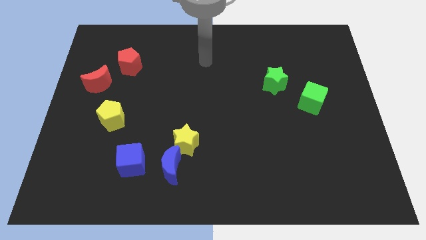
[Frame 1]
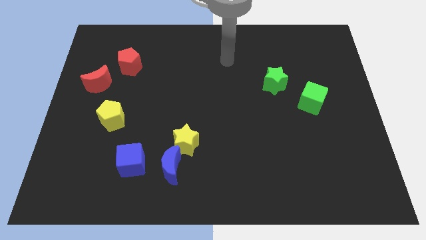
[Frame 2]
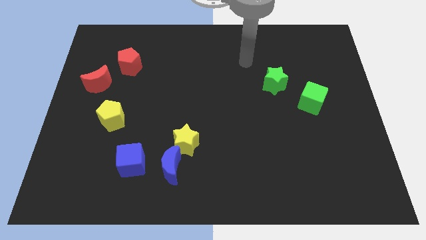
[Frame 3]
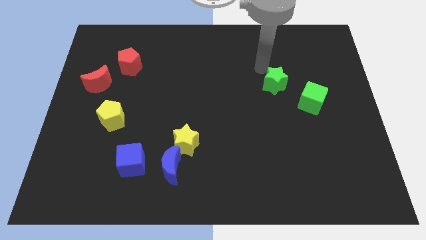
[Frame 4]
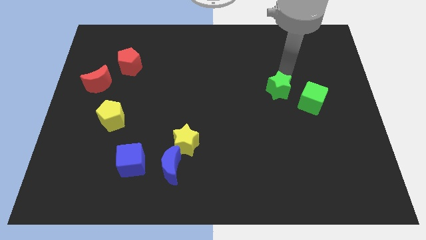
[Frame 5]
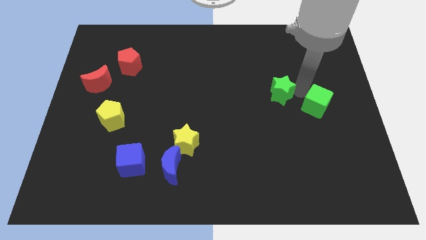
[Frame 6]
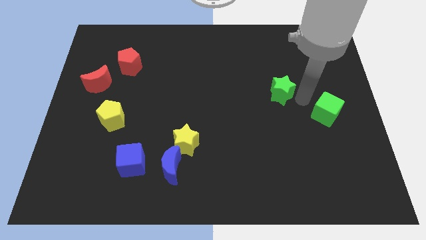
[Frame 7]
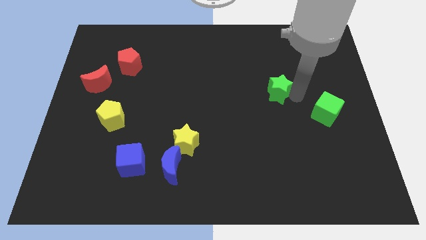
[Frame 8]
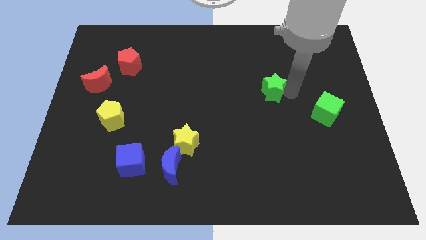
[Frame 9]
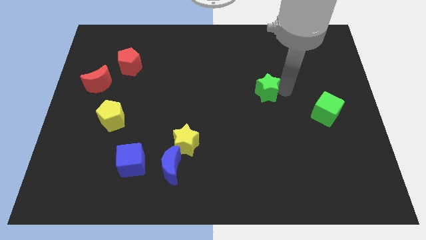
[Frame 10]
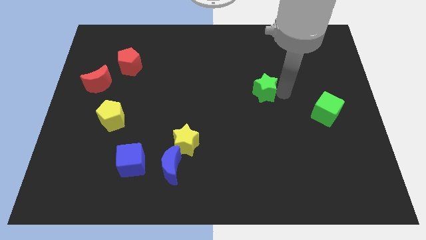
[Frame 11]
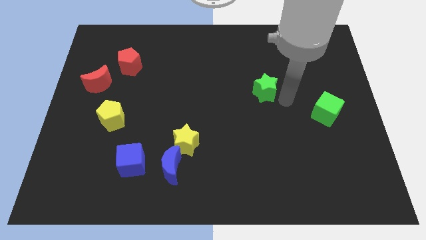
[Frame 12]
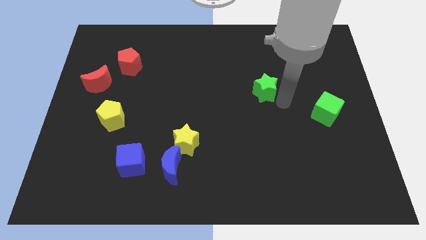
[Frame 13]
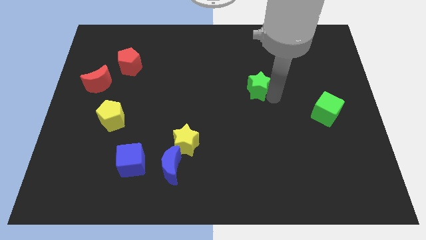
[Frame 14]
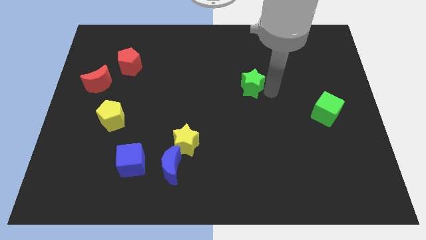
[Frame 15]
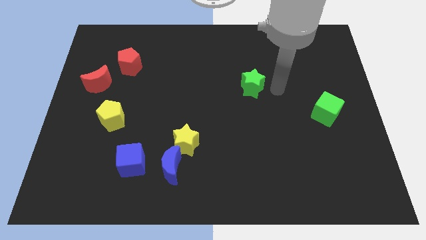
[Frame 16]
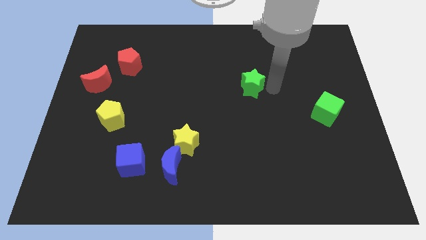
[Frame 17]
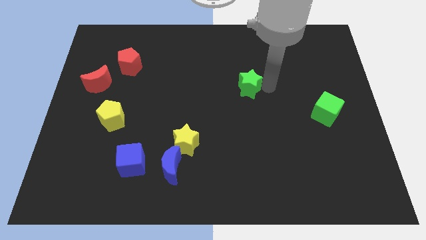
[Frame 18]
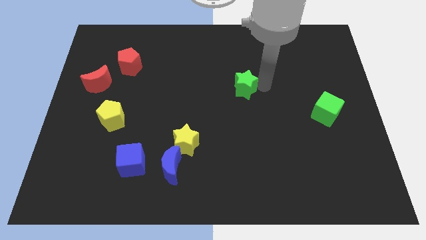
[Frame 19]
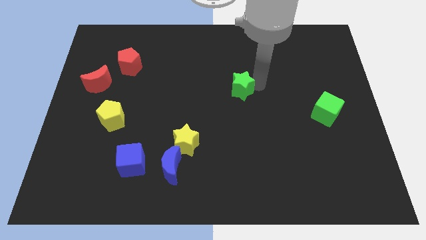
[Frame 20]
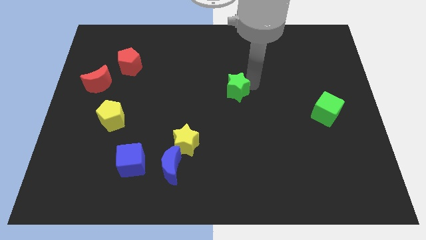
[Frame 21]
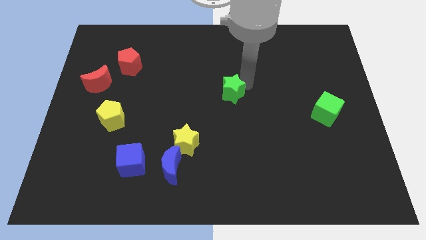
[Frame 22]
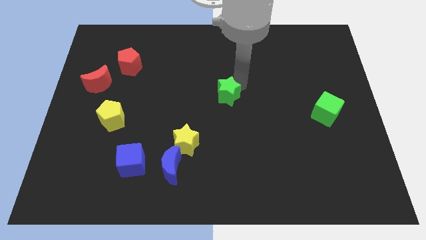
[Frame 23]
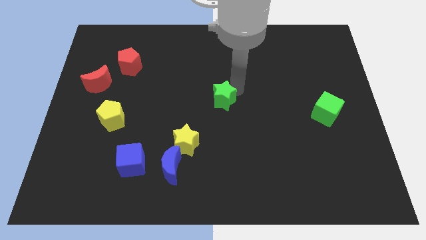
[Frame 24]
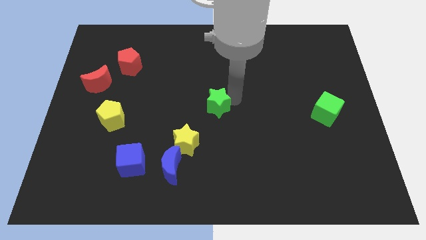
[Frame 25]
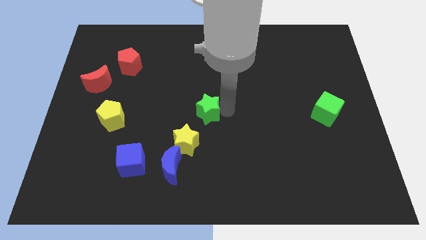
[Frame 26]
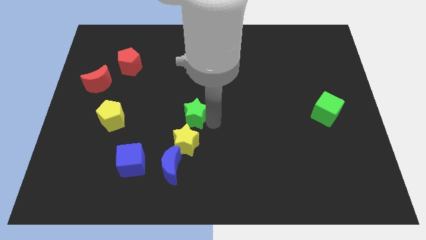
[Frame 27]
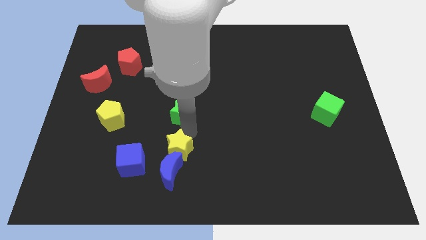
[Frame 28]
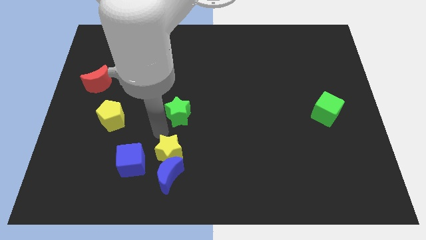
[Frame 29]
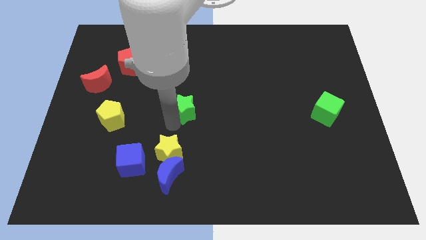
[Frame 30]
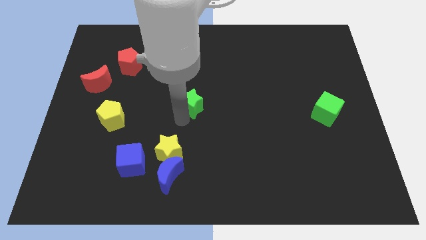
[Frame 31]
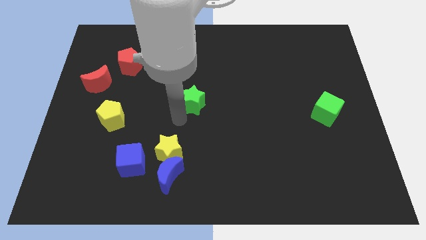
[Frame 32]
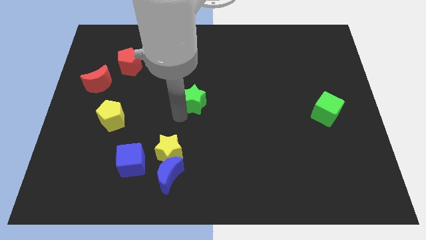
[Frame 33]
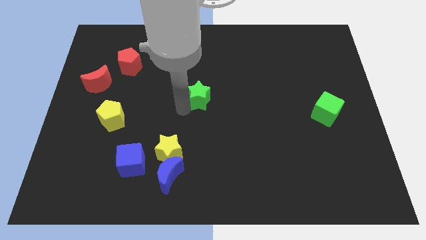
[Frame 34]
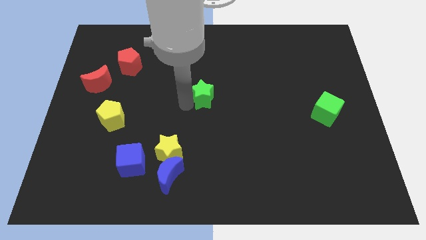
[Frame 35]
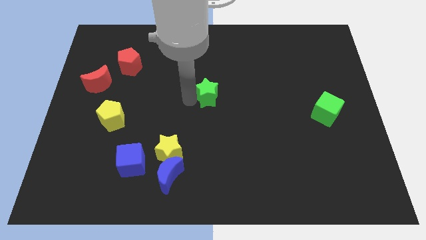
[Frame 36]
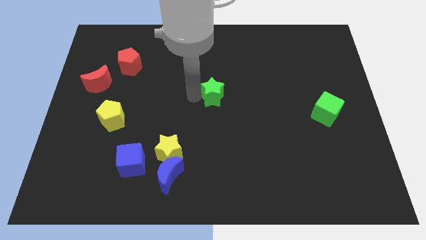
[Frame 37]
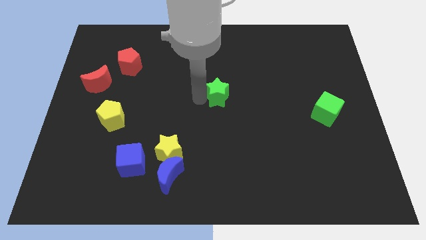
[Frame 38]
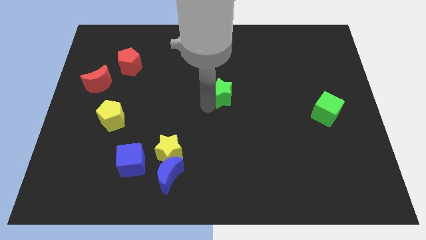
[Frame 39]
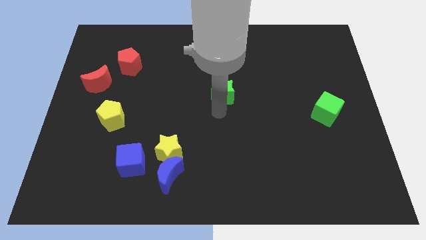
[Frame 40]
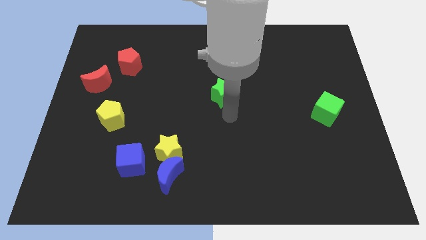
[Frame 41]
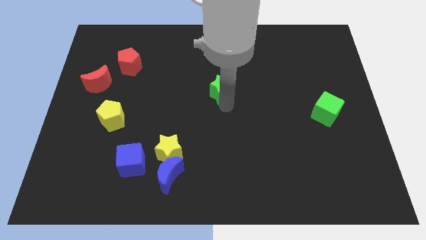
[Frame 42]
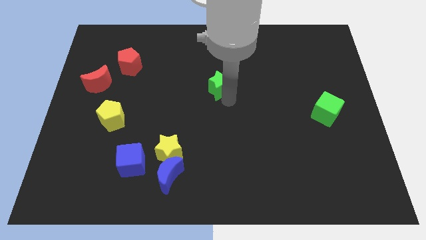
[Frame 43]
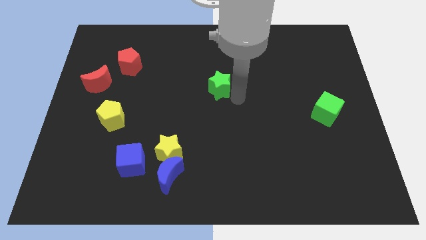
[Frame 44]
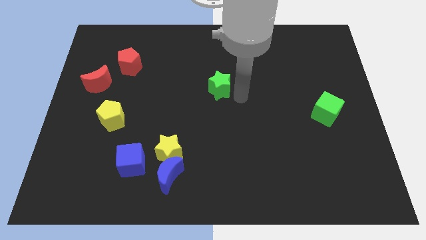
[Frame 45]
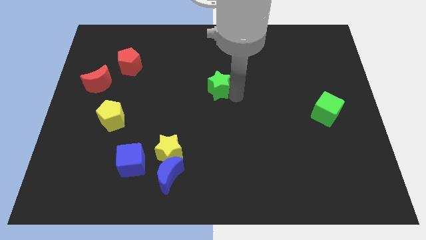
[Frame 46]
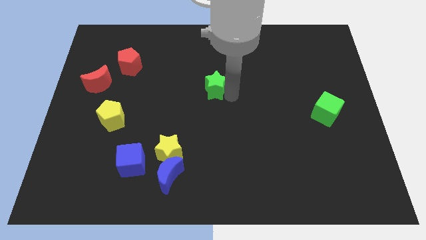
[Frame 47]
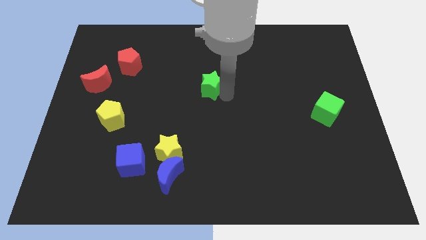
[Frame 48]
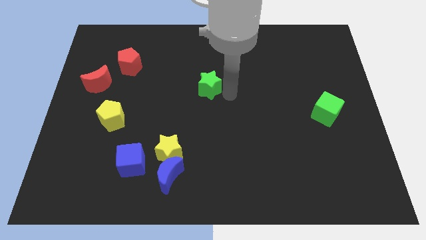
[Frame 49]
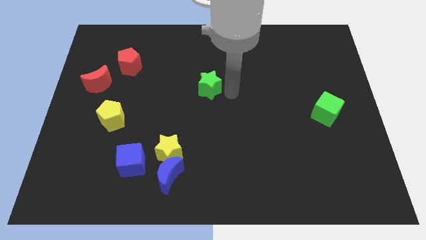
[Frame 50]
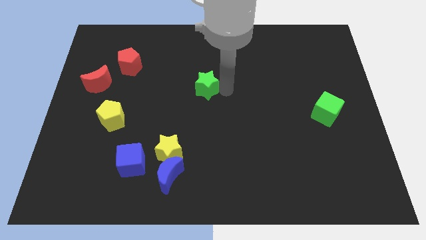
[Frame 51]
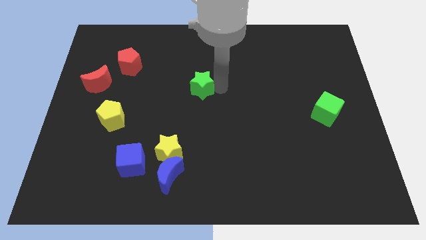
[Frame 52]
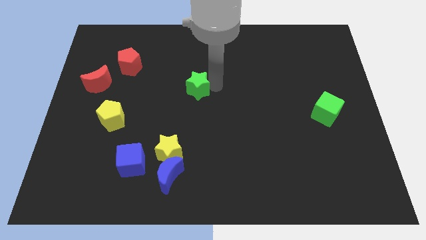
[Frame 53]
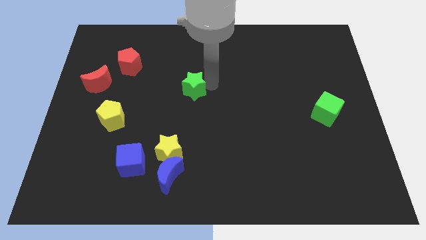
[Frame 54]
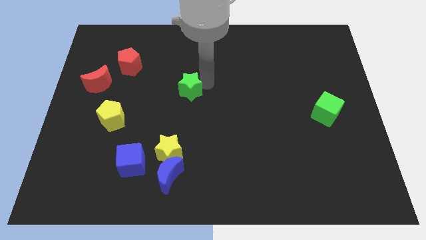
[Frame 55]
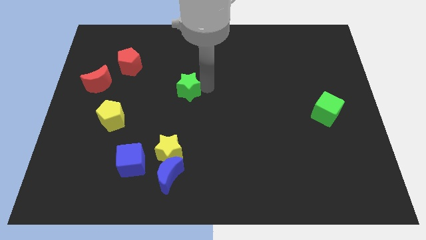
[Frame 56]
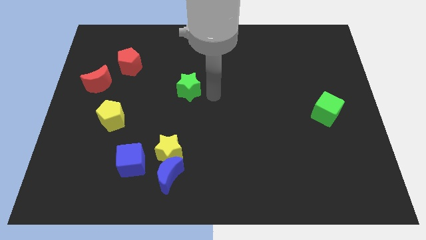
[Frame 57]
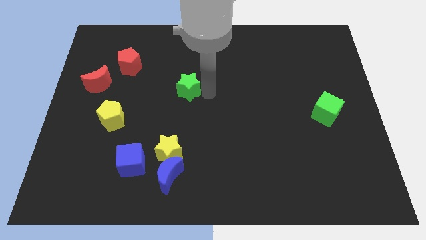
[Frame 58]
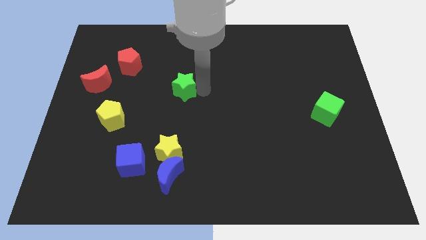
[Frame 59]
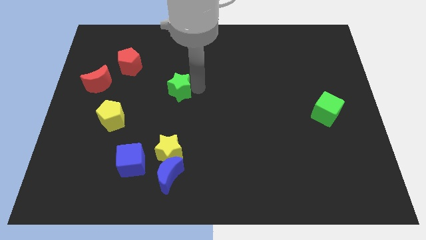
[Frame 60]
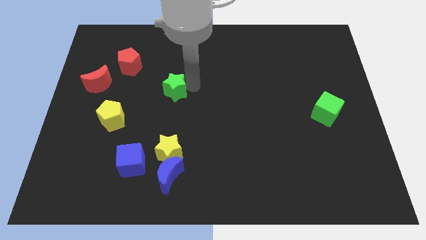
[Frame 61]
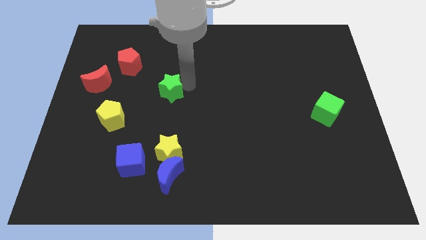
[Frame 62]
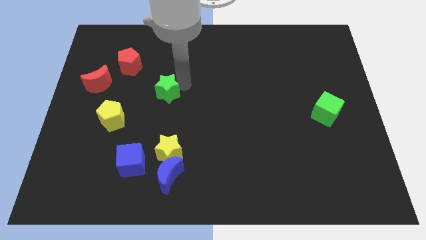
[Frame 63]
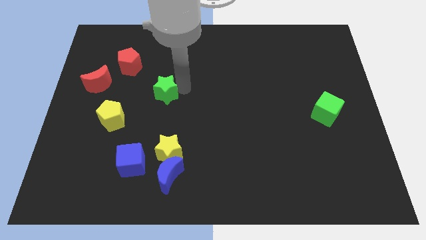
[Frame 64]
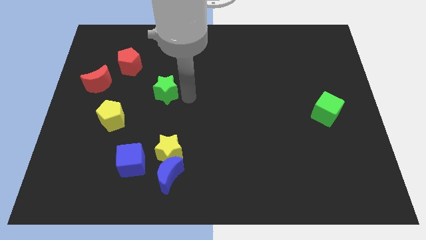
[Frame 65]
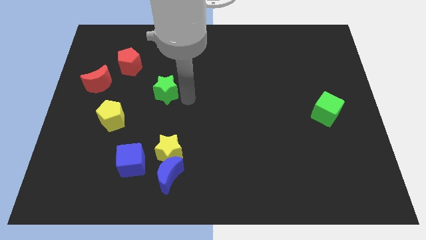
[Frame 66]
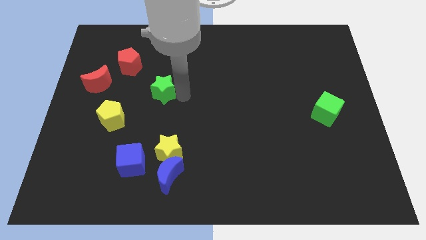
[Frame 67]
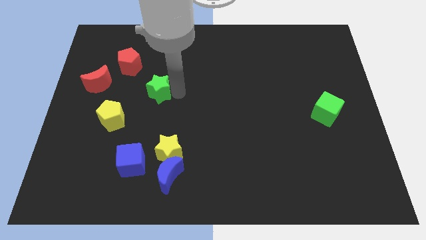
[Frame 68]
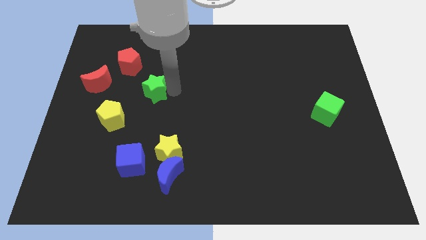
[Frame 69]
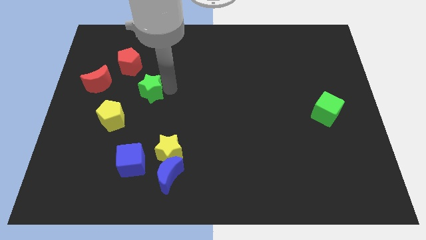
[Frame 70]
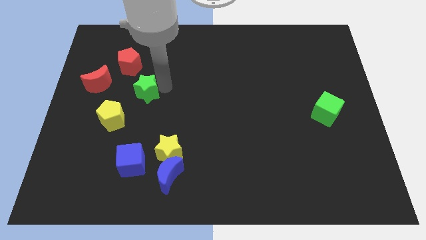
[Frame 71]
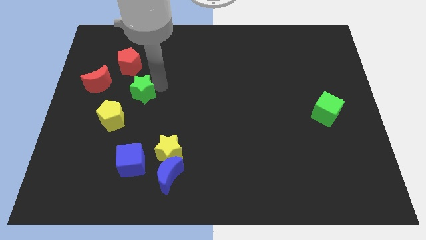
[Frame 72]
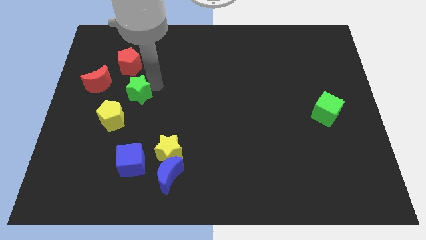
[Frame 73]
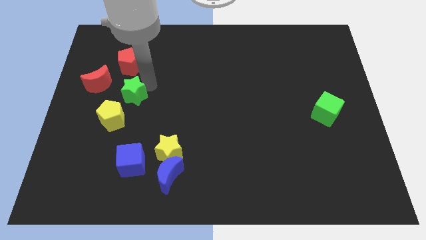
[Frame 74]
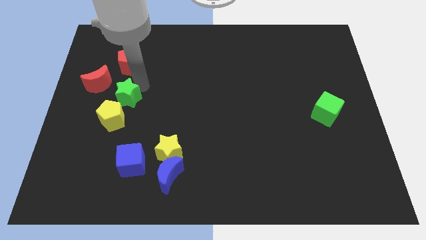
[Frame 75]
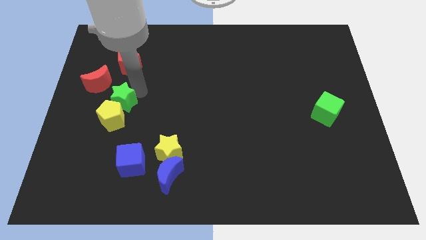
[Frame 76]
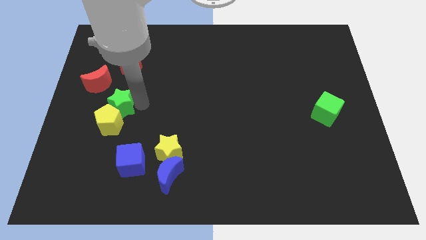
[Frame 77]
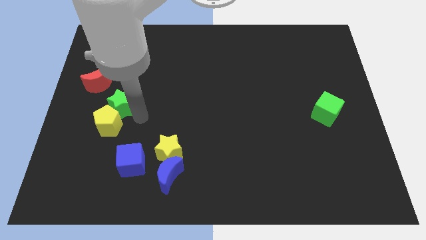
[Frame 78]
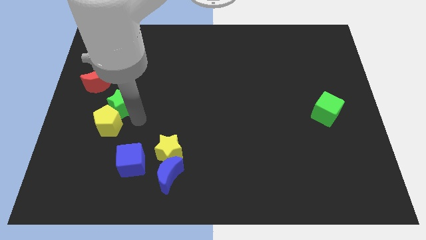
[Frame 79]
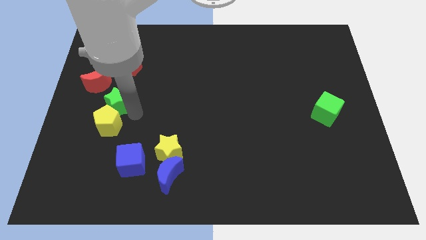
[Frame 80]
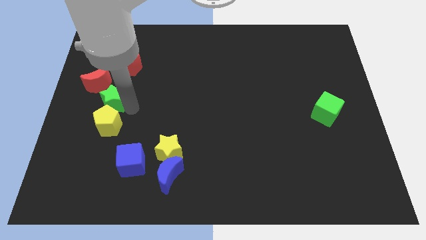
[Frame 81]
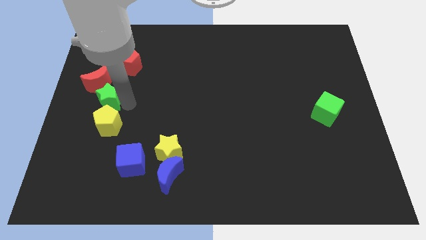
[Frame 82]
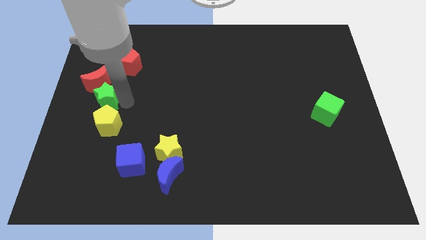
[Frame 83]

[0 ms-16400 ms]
push the green star towards the red moon
